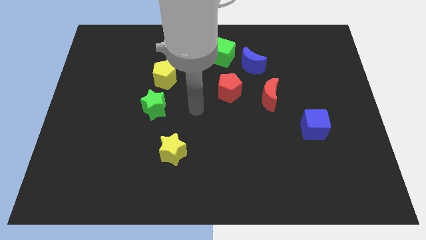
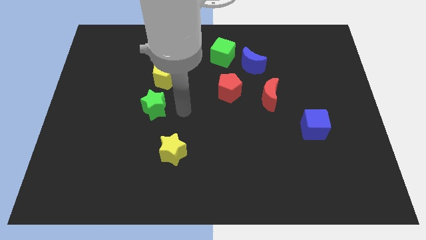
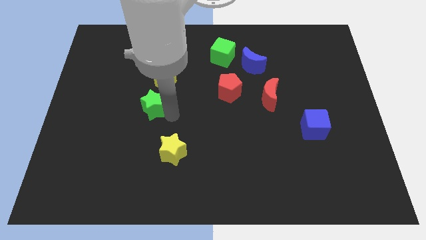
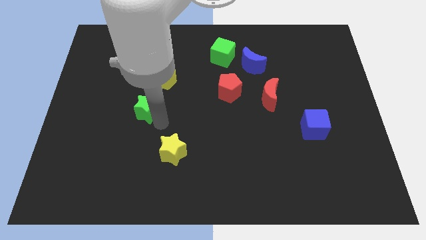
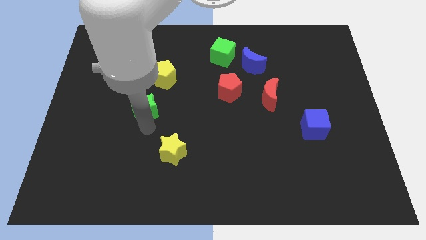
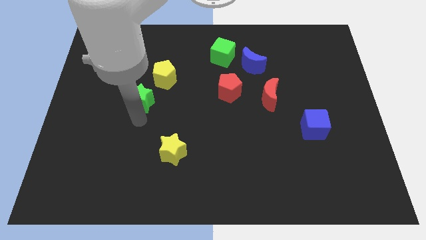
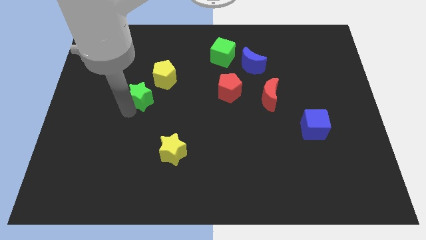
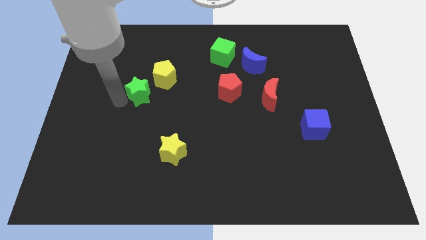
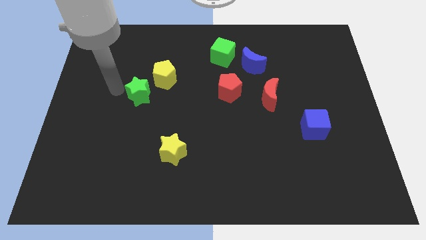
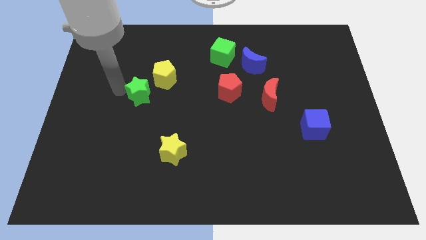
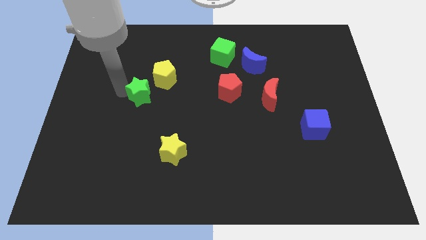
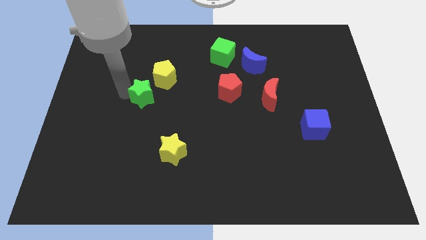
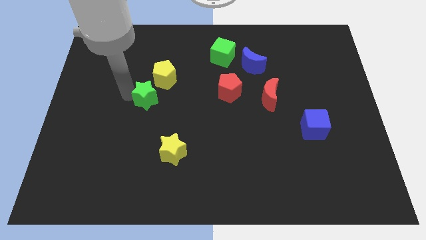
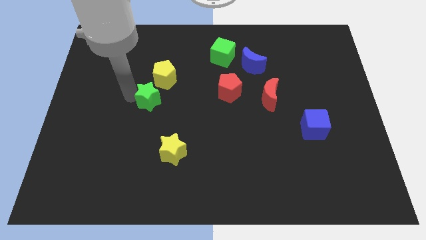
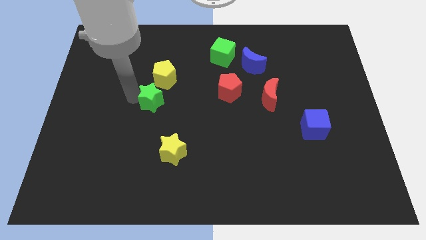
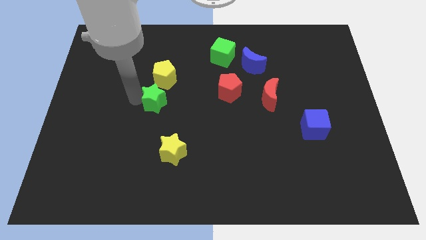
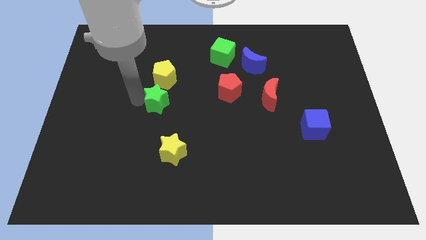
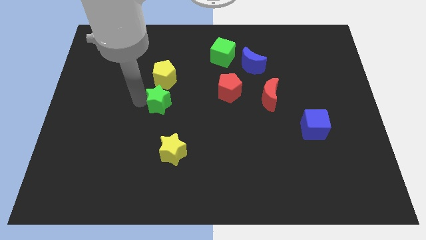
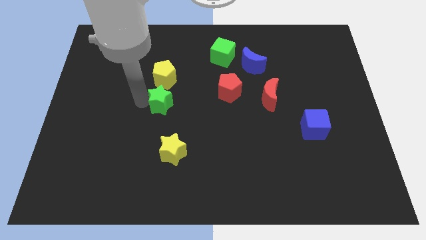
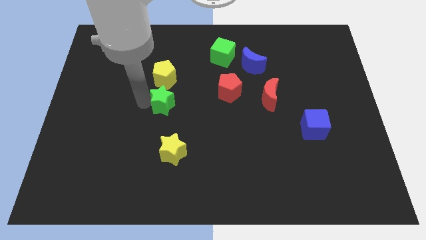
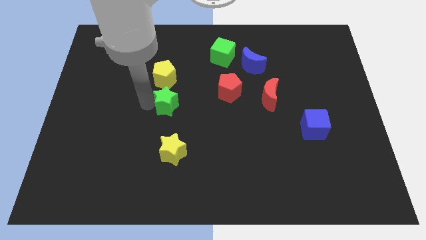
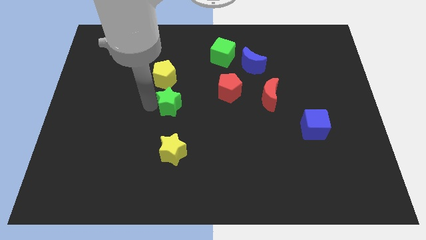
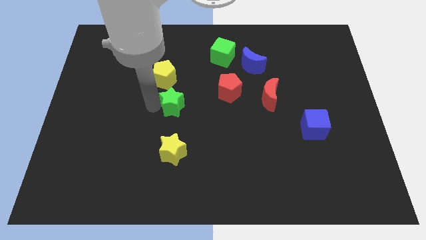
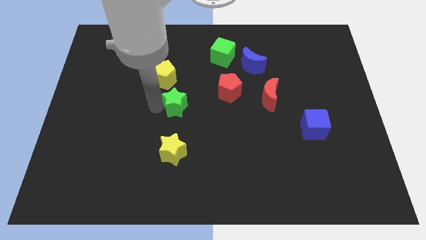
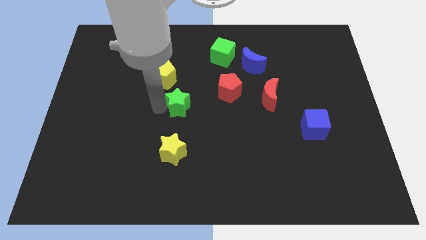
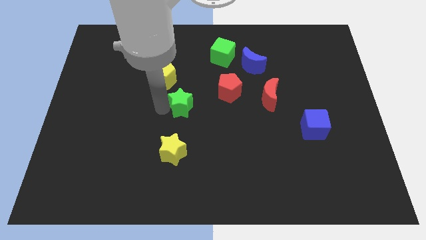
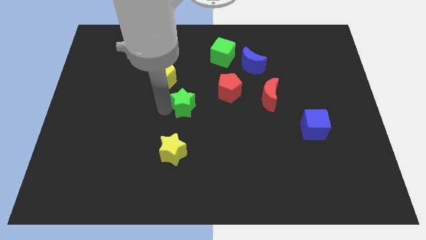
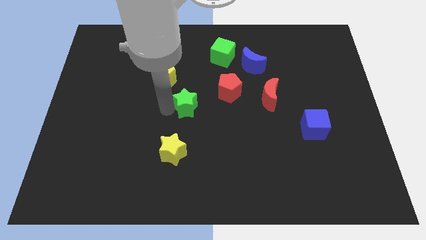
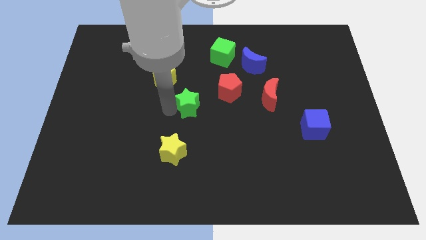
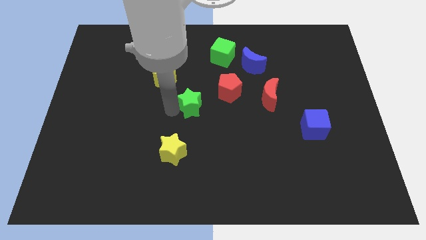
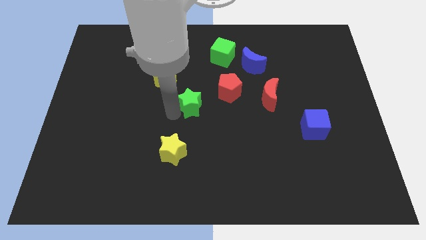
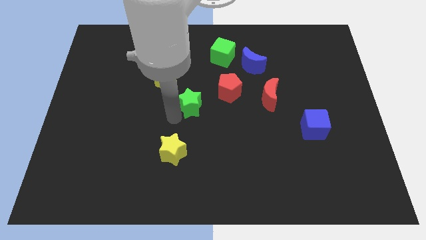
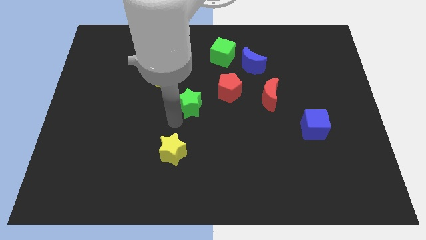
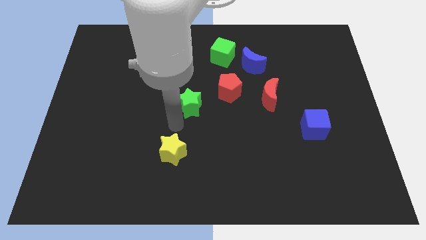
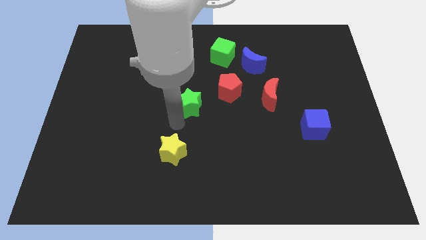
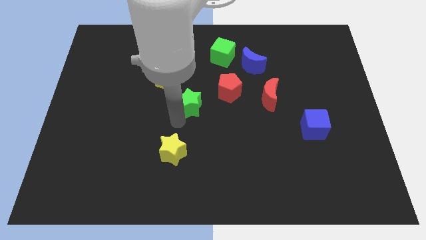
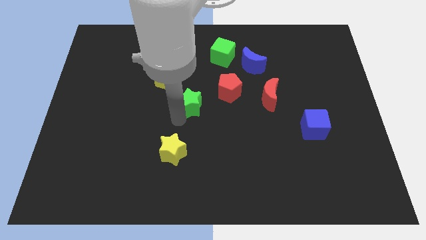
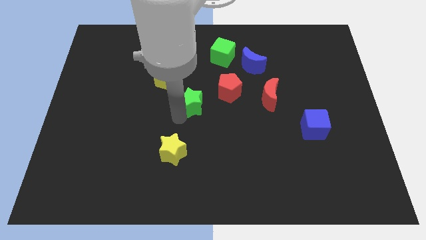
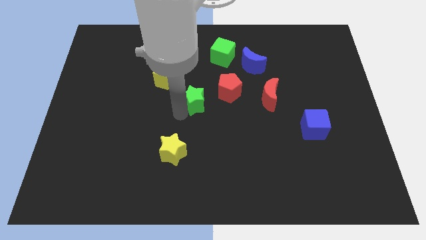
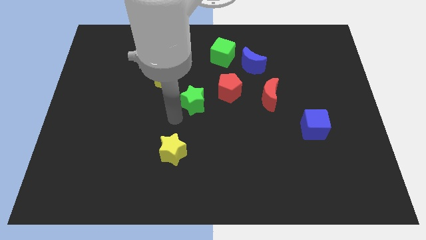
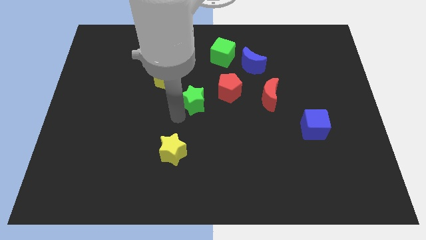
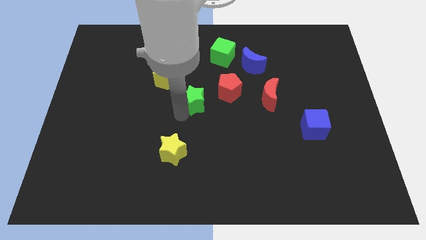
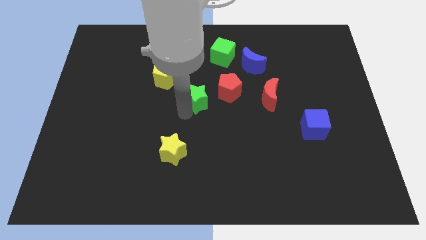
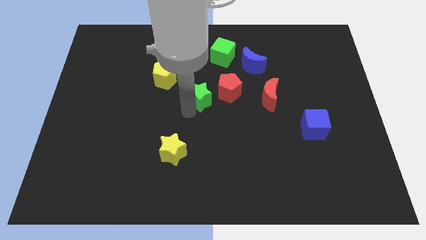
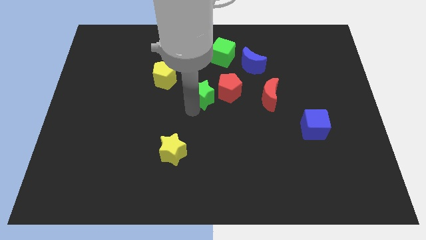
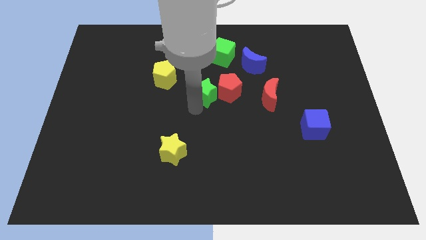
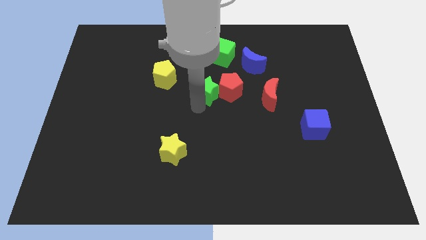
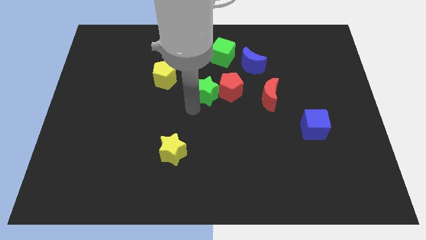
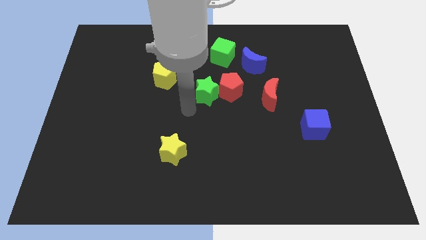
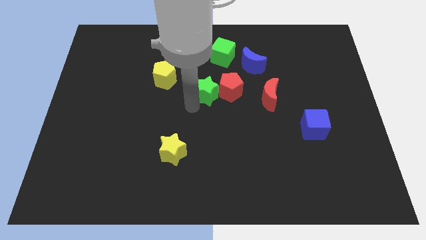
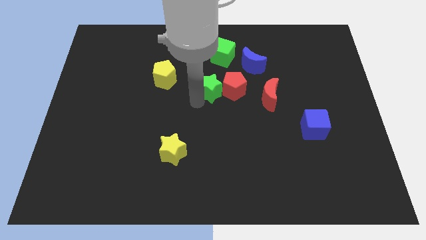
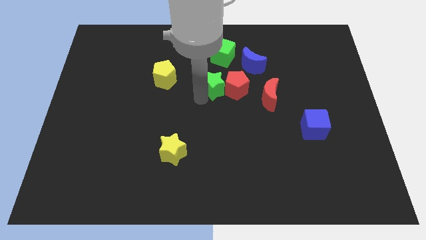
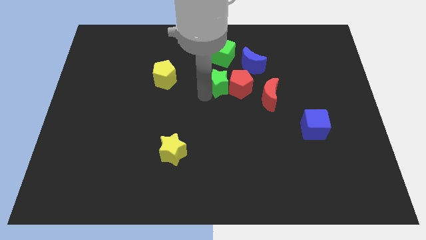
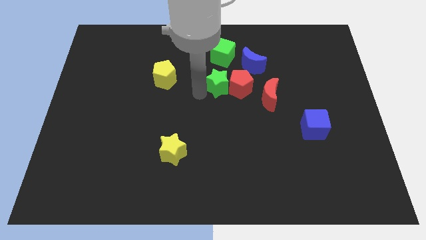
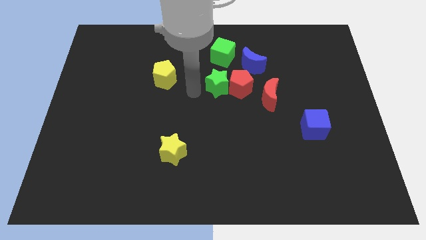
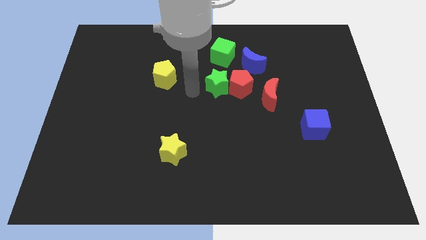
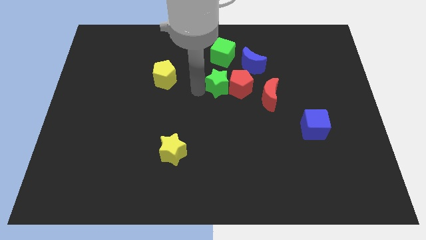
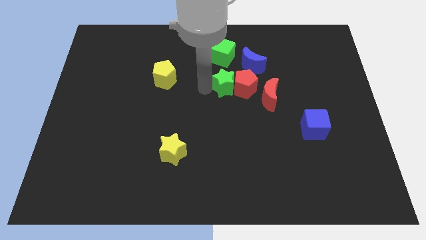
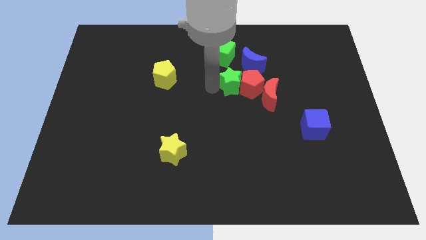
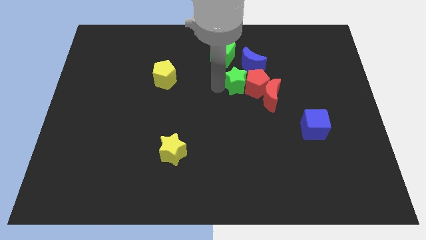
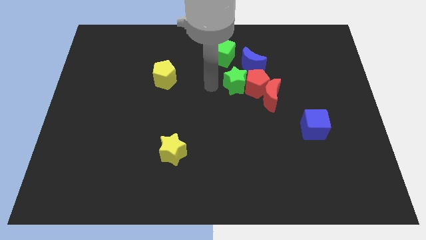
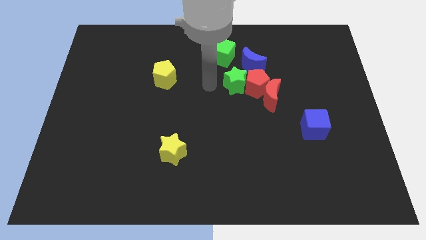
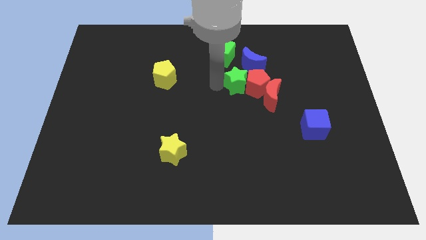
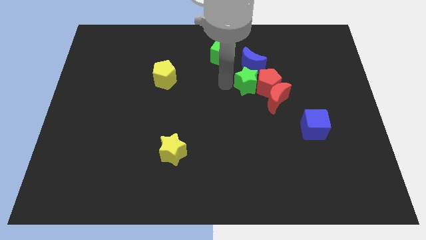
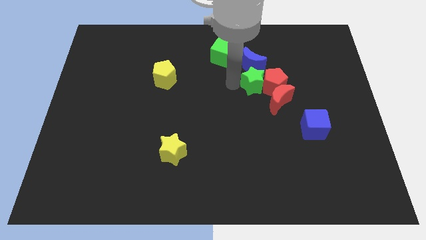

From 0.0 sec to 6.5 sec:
move the green star diagonally down and to the right of the blue moon
